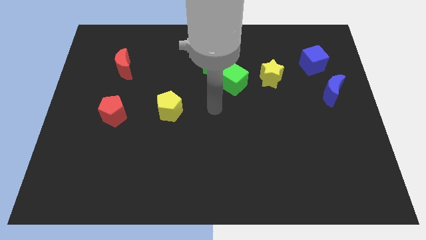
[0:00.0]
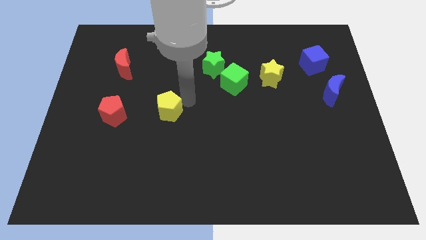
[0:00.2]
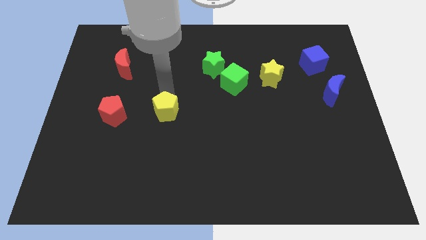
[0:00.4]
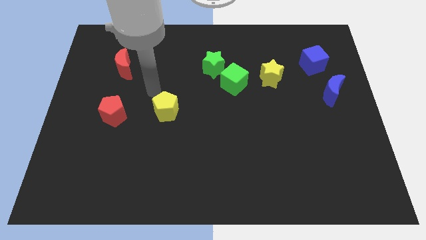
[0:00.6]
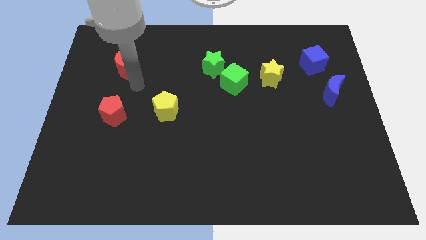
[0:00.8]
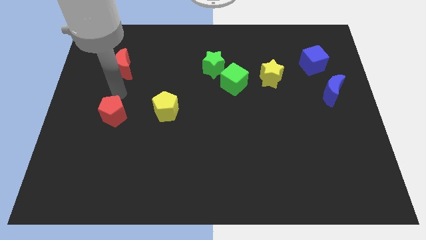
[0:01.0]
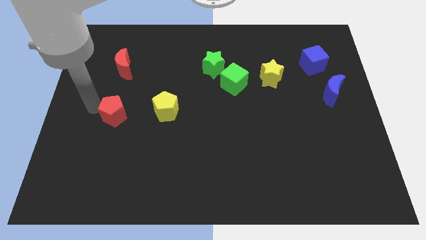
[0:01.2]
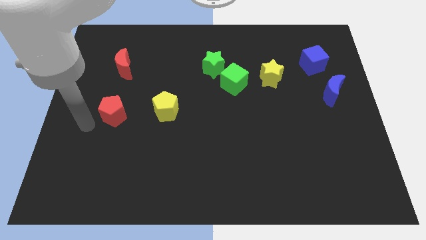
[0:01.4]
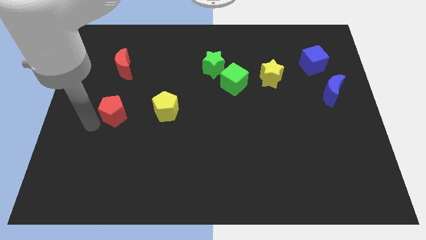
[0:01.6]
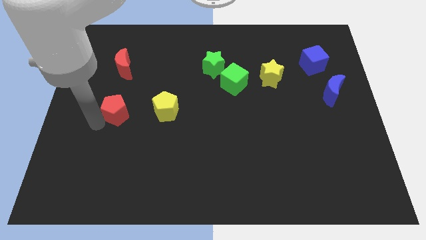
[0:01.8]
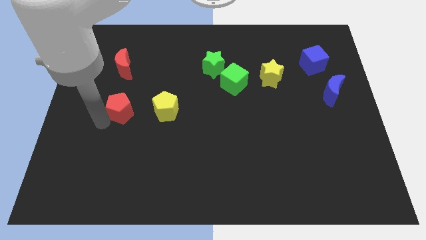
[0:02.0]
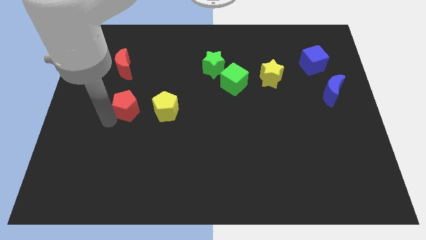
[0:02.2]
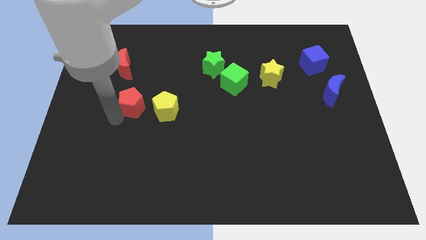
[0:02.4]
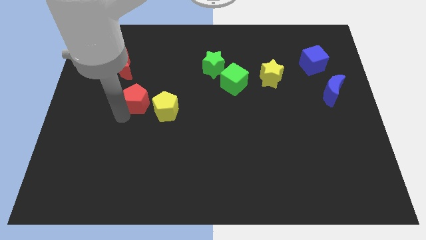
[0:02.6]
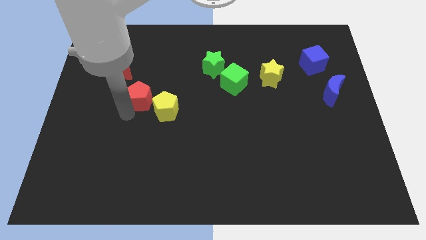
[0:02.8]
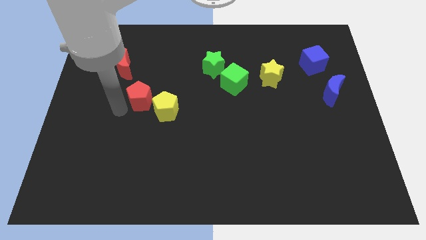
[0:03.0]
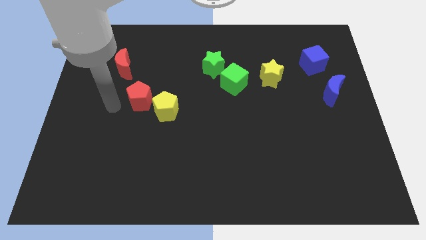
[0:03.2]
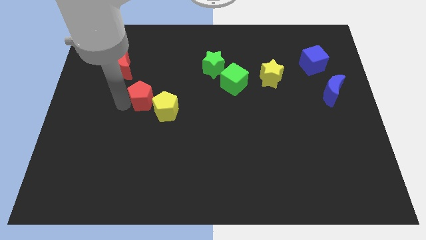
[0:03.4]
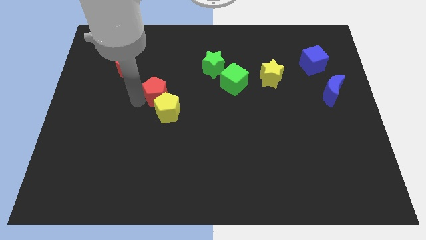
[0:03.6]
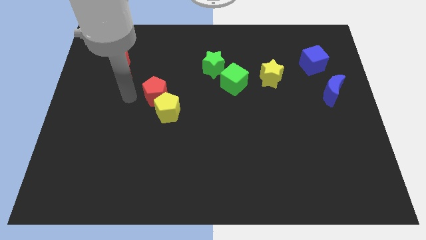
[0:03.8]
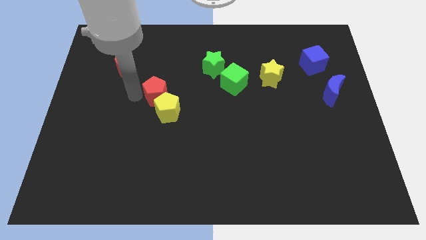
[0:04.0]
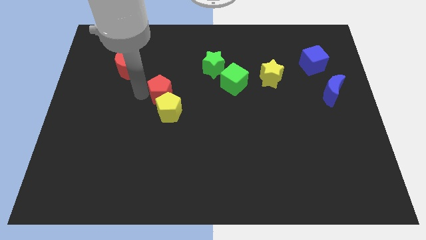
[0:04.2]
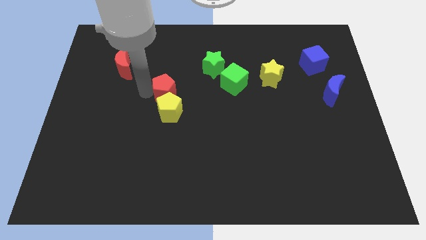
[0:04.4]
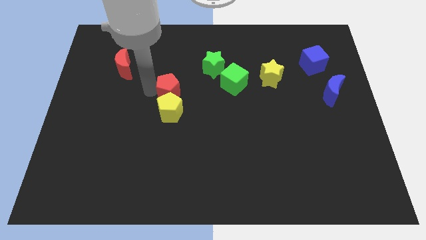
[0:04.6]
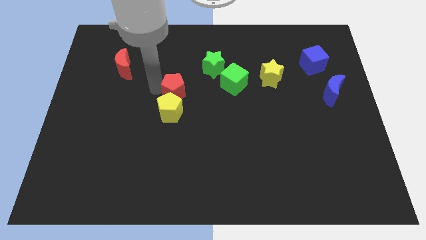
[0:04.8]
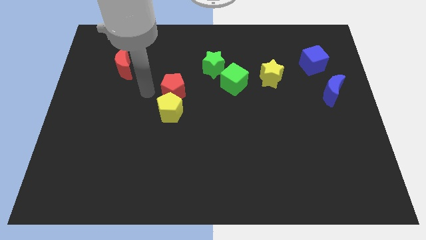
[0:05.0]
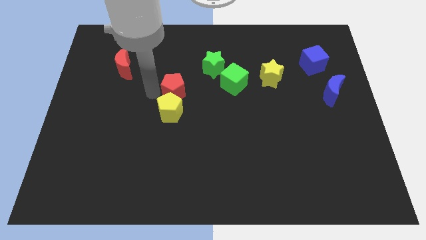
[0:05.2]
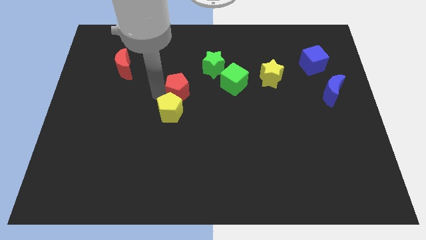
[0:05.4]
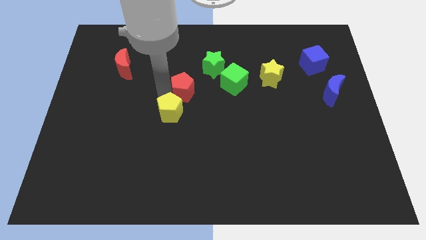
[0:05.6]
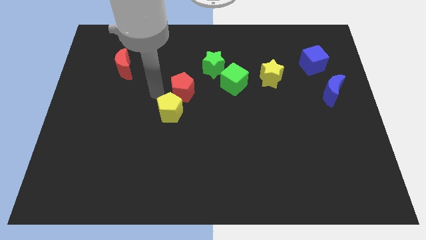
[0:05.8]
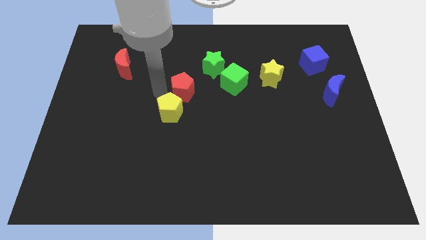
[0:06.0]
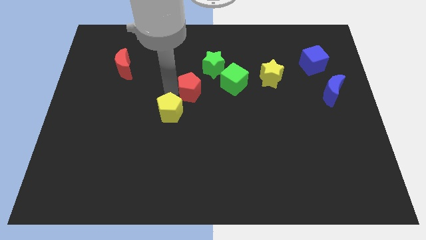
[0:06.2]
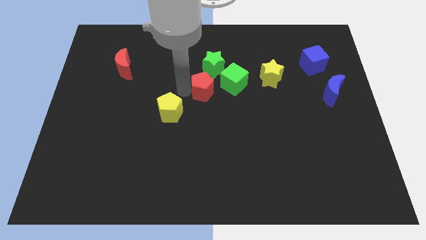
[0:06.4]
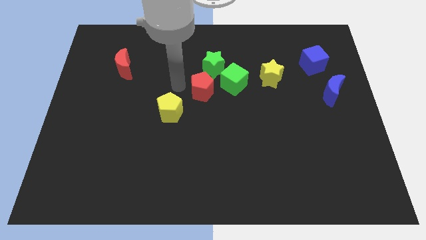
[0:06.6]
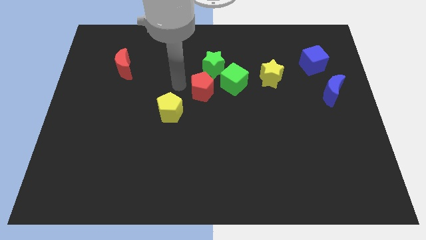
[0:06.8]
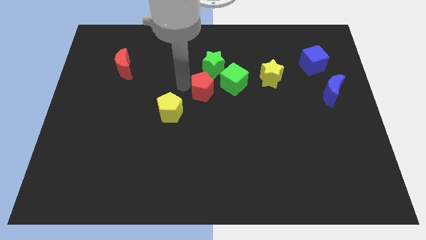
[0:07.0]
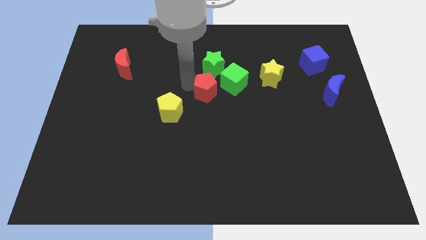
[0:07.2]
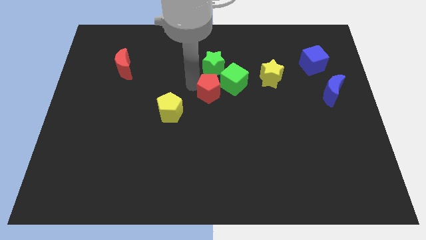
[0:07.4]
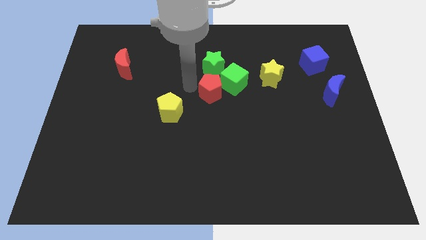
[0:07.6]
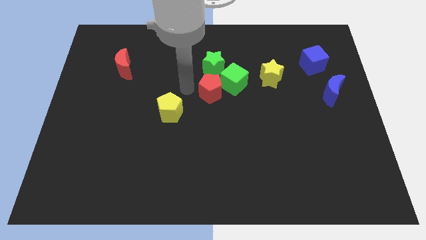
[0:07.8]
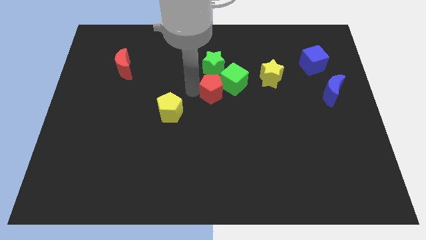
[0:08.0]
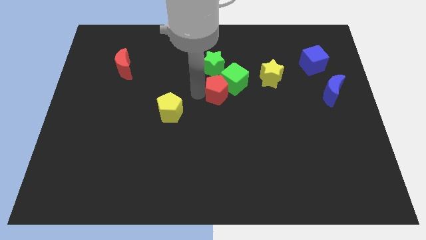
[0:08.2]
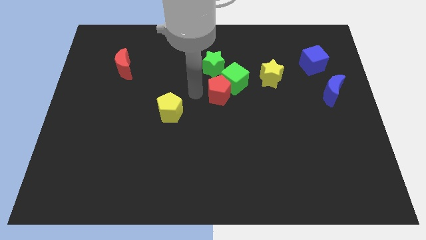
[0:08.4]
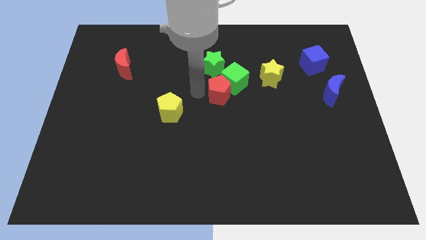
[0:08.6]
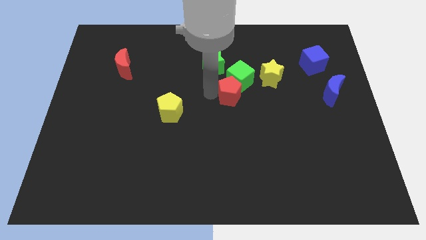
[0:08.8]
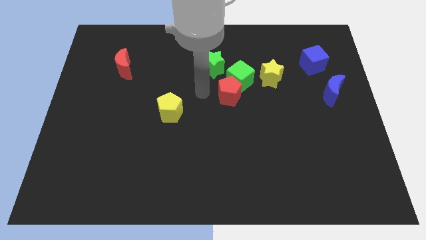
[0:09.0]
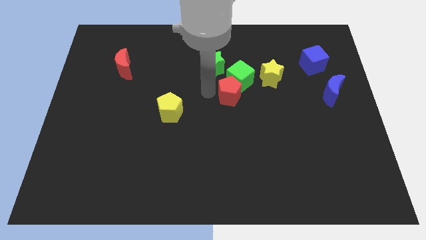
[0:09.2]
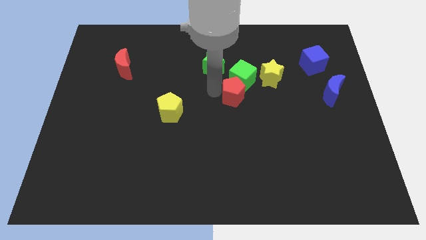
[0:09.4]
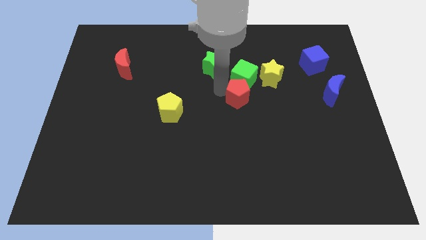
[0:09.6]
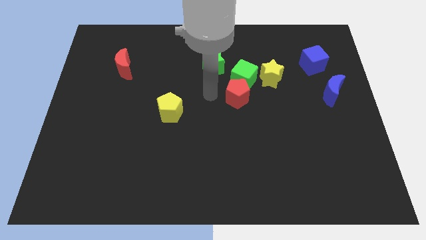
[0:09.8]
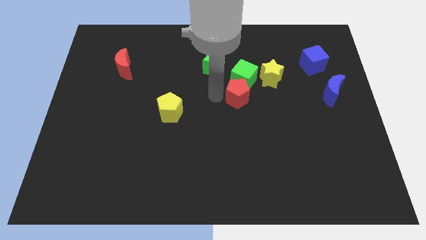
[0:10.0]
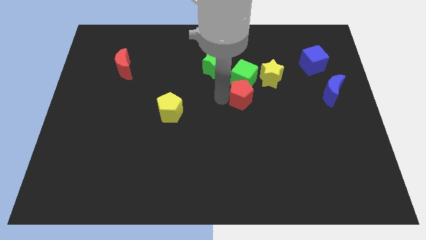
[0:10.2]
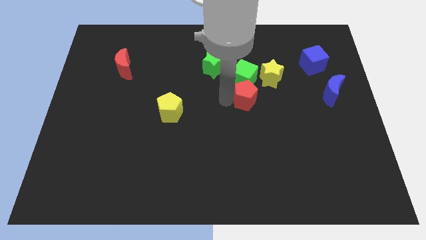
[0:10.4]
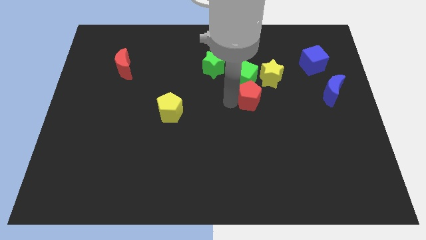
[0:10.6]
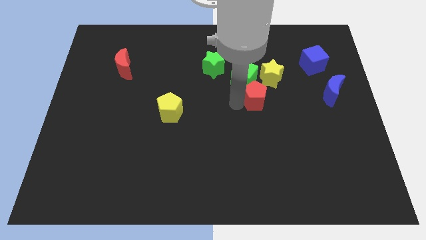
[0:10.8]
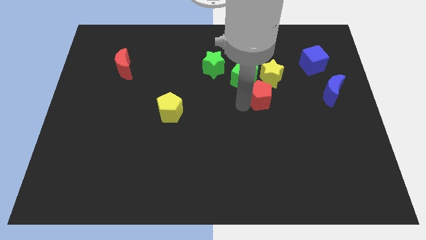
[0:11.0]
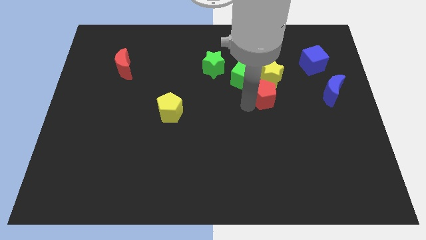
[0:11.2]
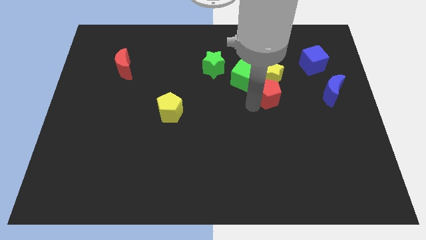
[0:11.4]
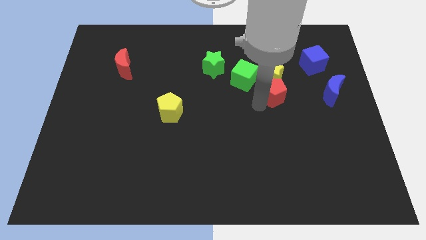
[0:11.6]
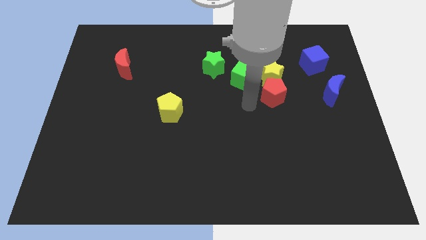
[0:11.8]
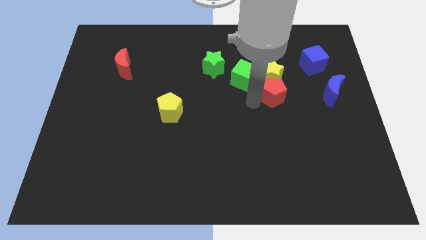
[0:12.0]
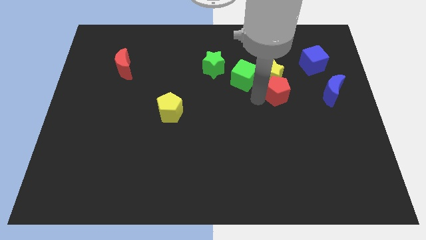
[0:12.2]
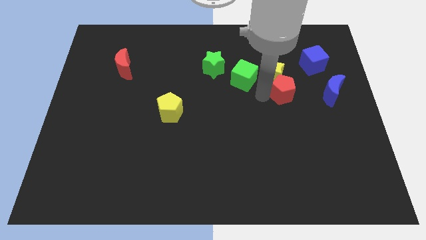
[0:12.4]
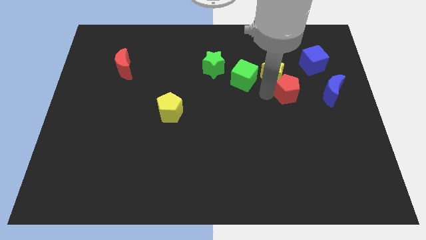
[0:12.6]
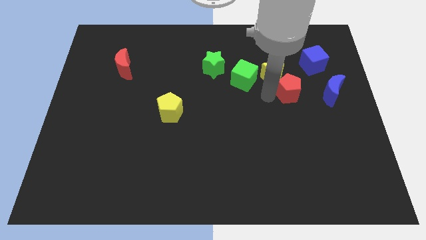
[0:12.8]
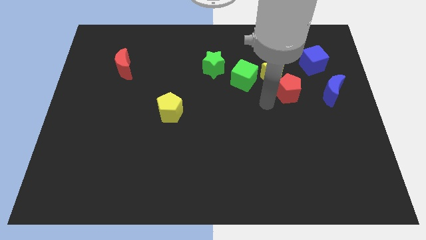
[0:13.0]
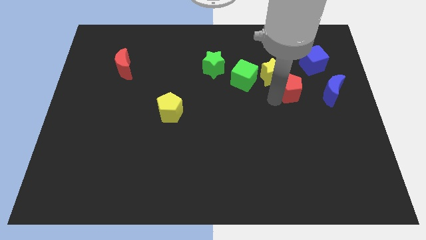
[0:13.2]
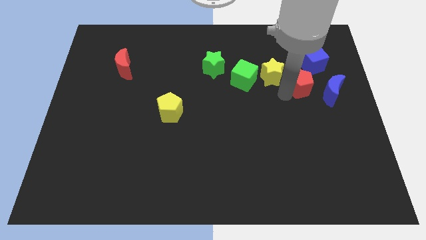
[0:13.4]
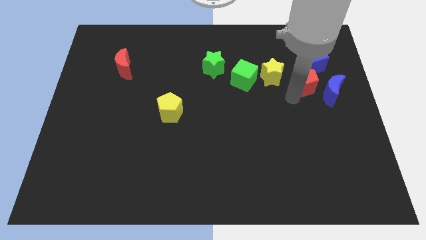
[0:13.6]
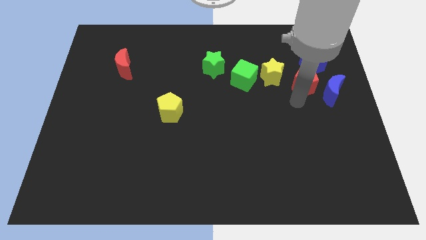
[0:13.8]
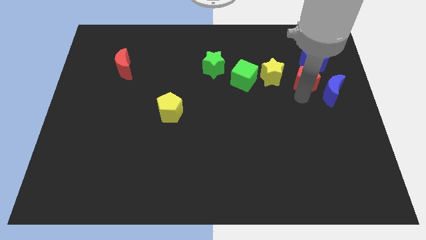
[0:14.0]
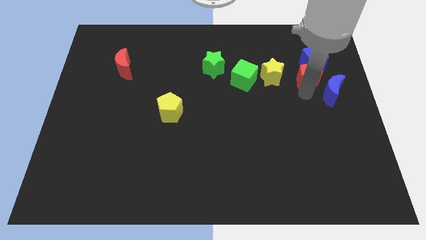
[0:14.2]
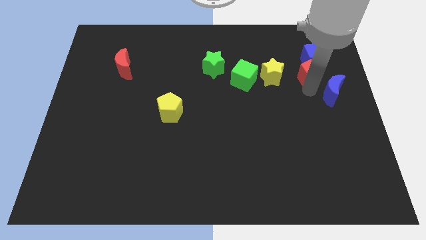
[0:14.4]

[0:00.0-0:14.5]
push the red pentagon towards the blue cube

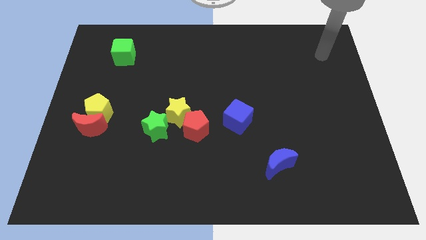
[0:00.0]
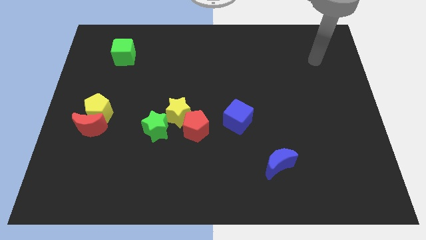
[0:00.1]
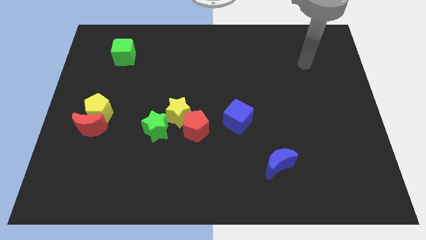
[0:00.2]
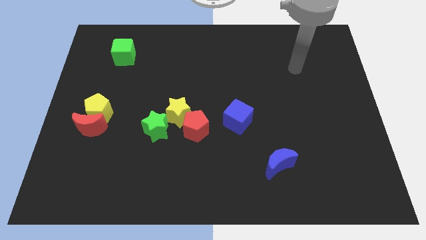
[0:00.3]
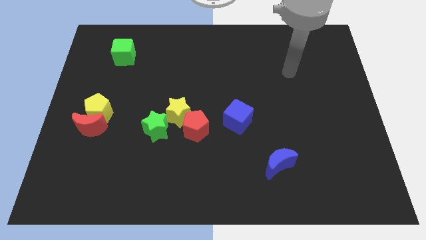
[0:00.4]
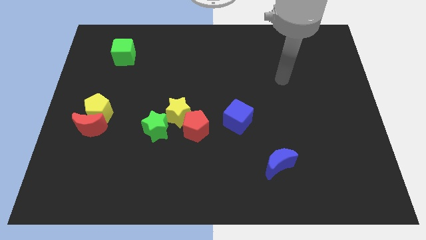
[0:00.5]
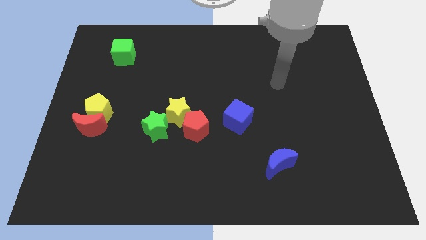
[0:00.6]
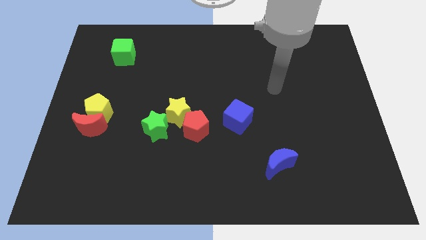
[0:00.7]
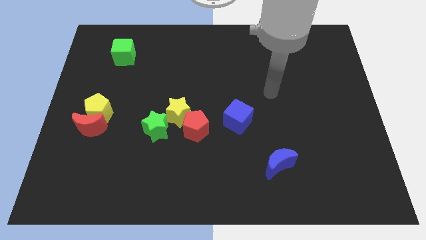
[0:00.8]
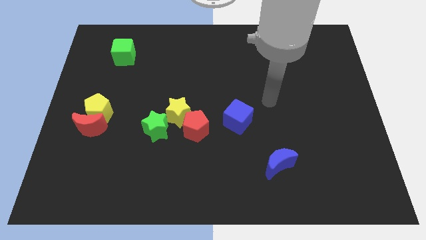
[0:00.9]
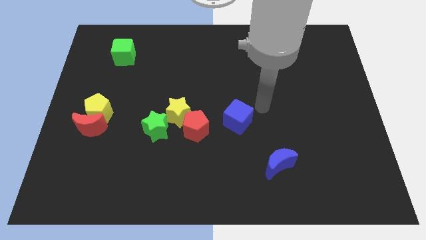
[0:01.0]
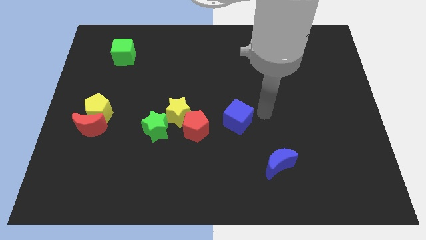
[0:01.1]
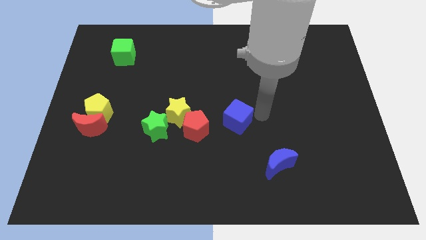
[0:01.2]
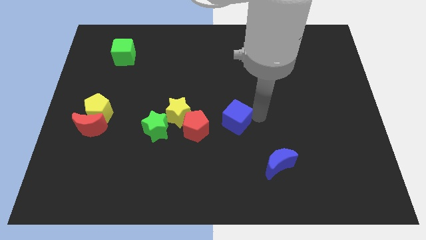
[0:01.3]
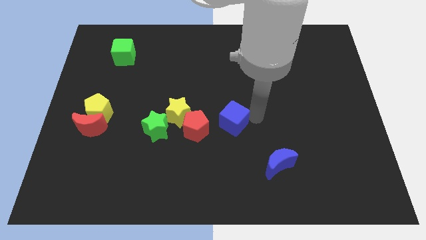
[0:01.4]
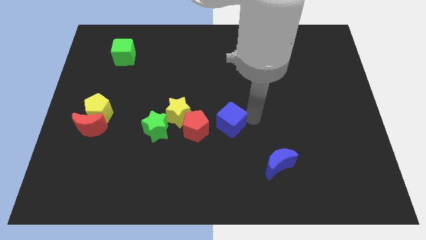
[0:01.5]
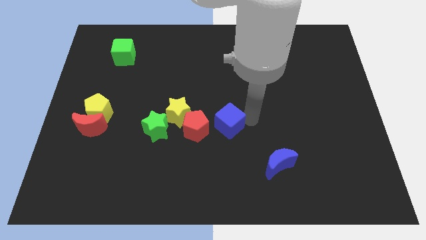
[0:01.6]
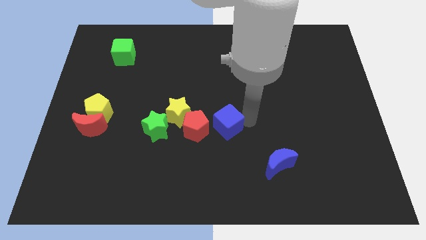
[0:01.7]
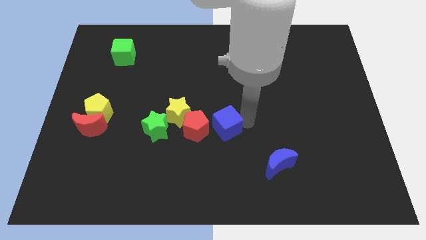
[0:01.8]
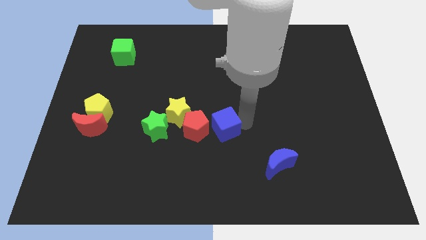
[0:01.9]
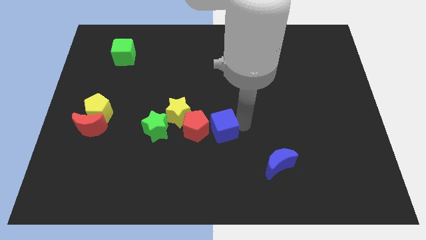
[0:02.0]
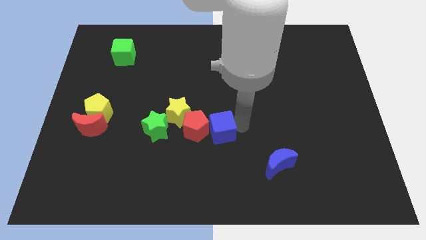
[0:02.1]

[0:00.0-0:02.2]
slide the blue cube to the red pentagon
